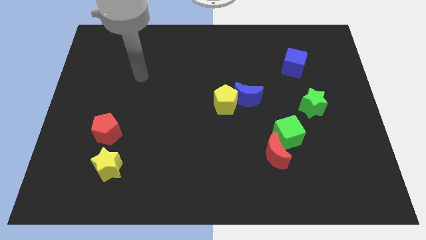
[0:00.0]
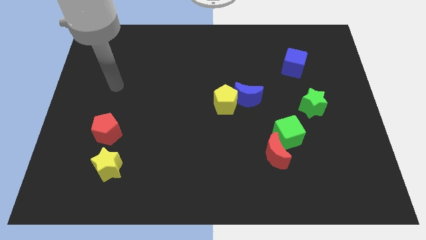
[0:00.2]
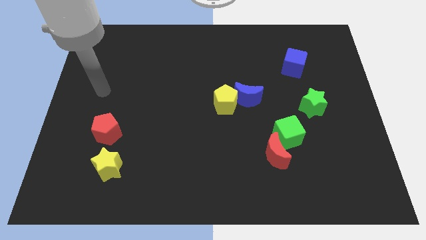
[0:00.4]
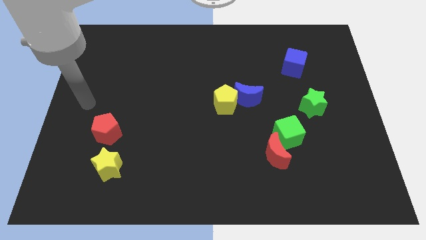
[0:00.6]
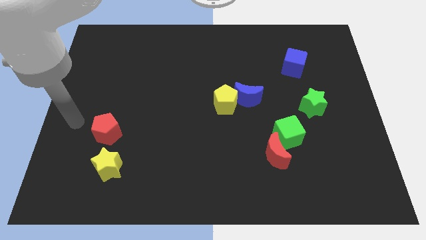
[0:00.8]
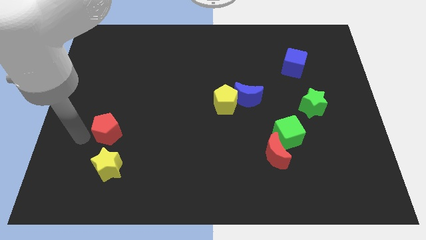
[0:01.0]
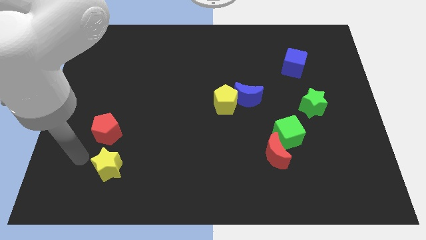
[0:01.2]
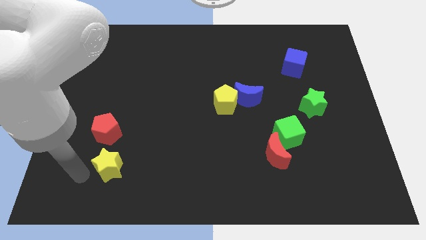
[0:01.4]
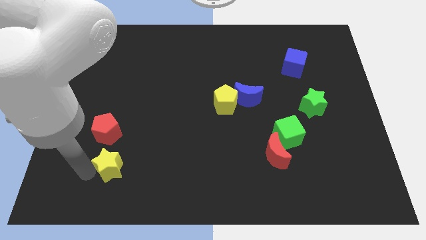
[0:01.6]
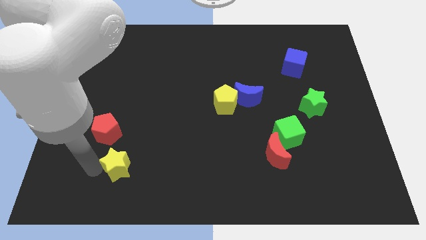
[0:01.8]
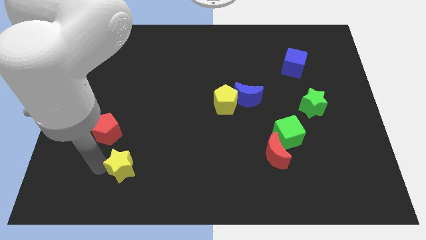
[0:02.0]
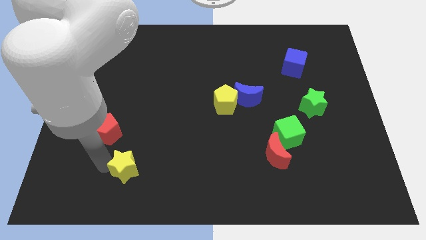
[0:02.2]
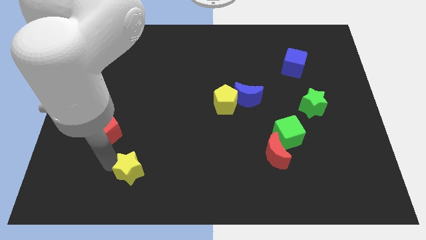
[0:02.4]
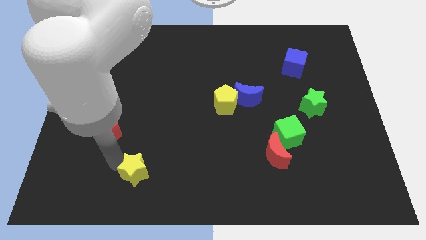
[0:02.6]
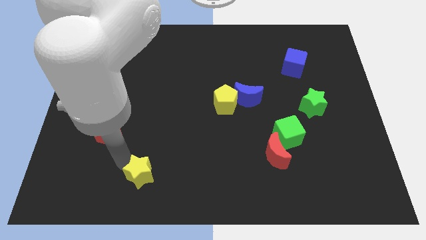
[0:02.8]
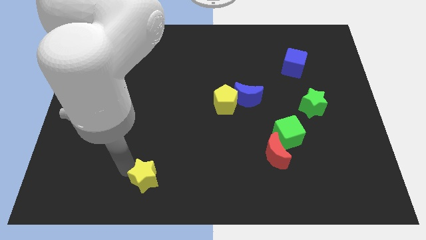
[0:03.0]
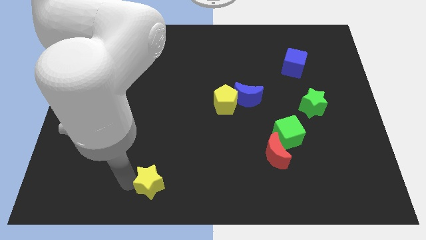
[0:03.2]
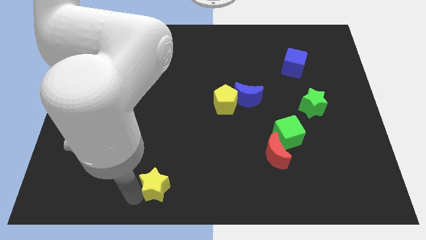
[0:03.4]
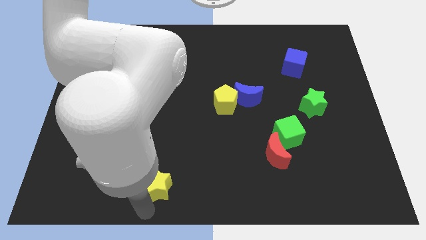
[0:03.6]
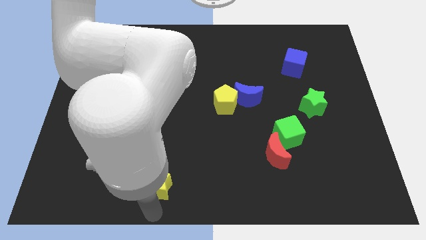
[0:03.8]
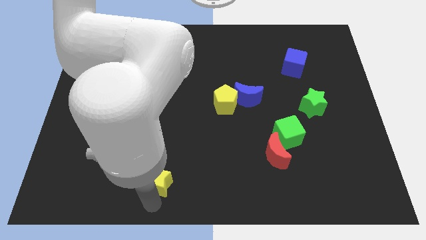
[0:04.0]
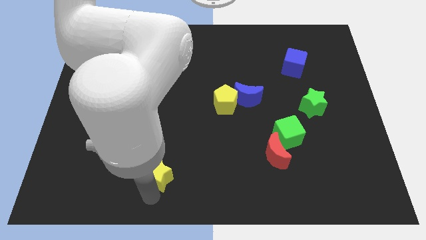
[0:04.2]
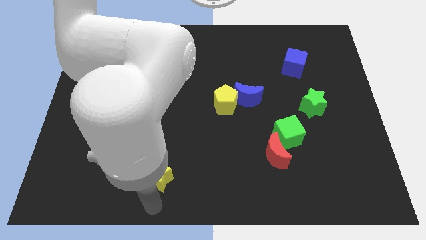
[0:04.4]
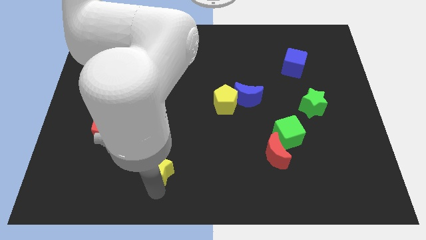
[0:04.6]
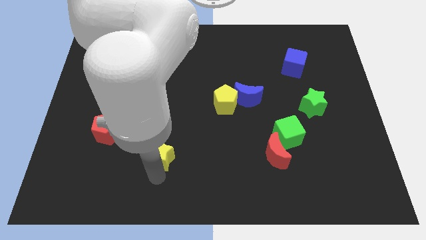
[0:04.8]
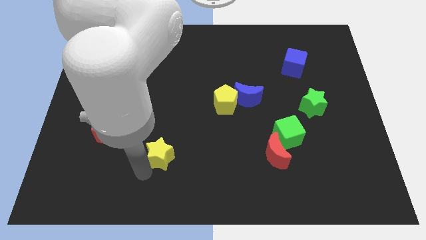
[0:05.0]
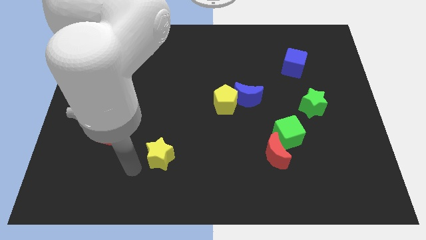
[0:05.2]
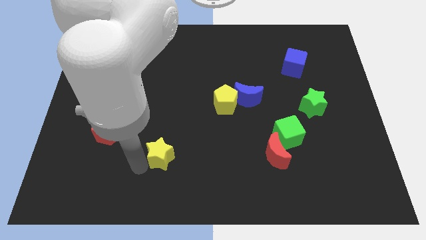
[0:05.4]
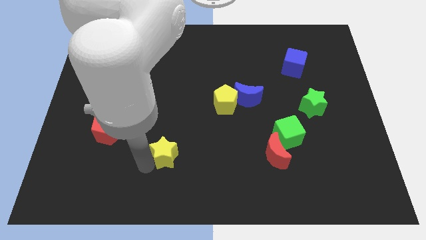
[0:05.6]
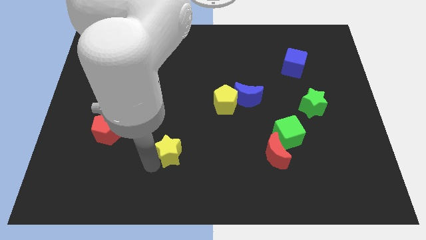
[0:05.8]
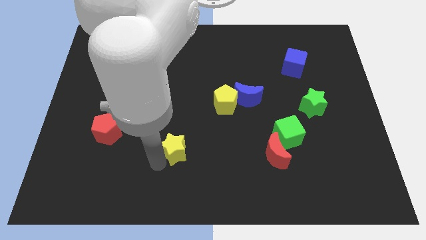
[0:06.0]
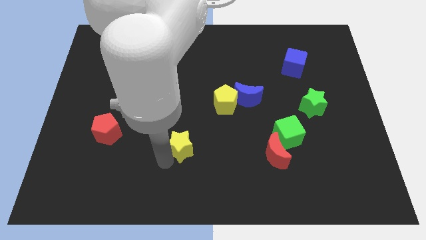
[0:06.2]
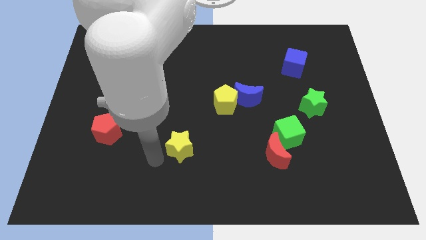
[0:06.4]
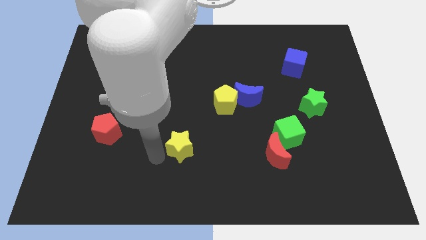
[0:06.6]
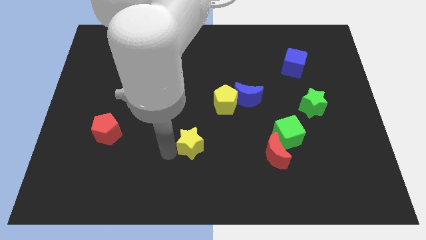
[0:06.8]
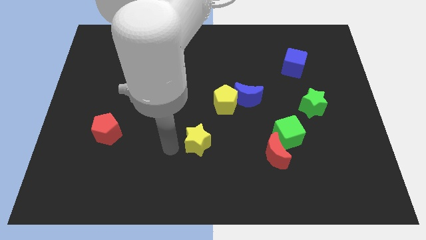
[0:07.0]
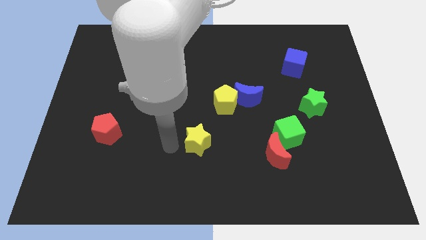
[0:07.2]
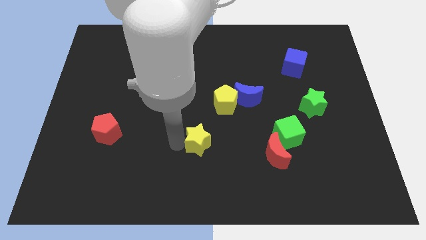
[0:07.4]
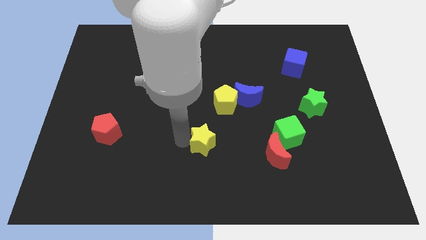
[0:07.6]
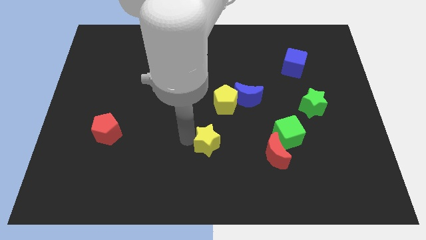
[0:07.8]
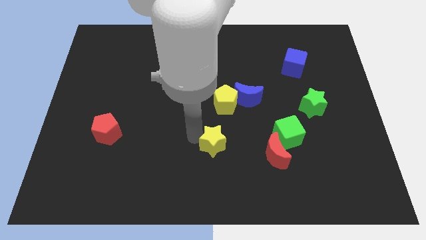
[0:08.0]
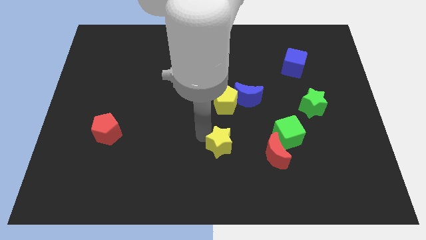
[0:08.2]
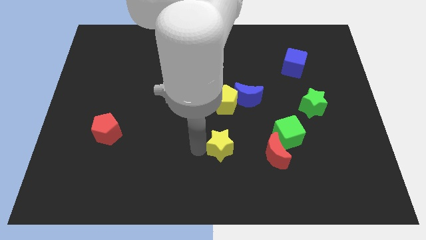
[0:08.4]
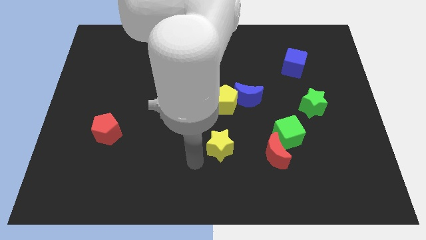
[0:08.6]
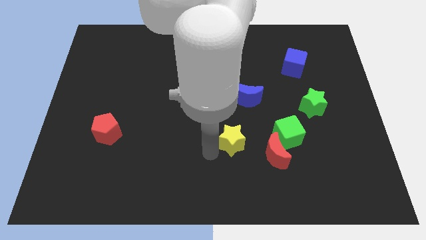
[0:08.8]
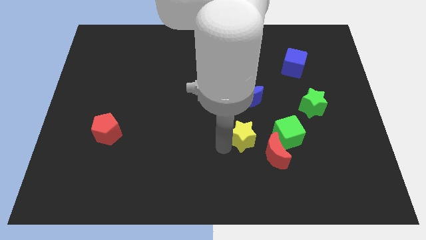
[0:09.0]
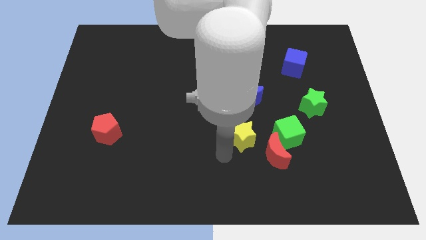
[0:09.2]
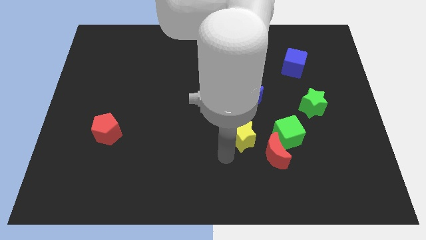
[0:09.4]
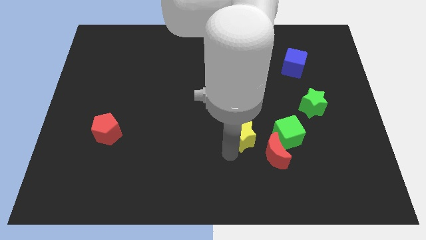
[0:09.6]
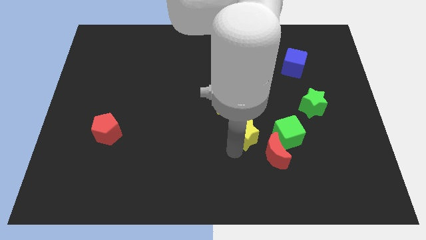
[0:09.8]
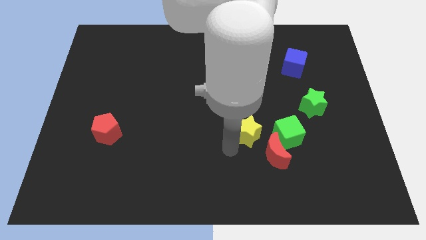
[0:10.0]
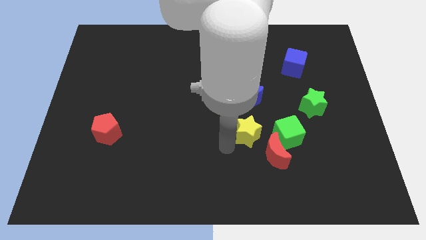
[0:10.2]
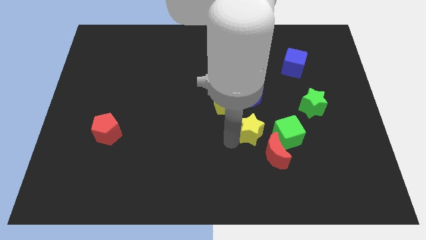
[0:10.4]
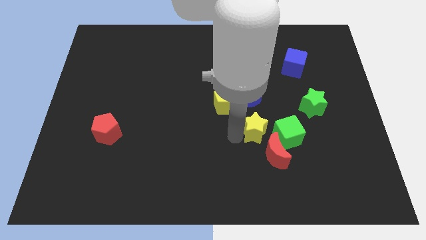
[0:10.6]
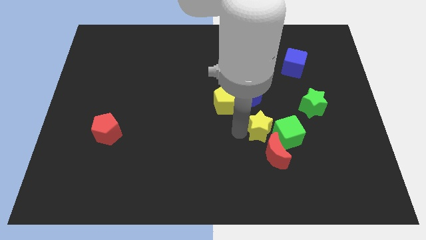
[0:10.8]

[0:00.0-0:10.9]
move the yellow star to the bottom right side of the blue moon

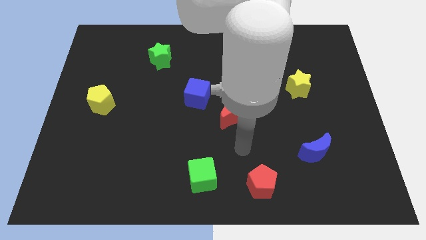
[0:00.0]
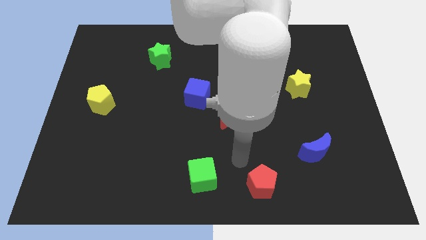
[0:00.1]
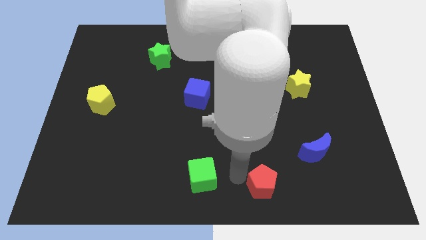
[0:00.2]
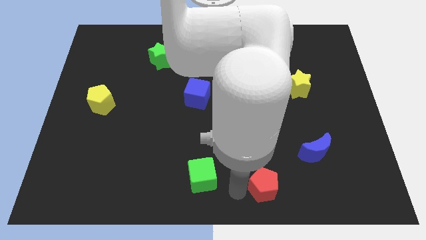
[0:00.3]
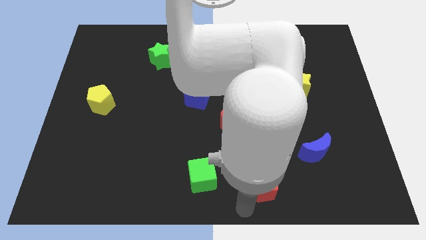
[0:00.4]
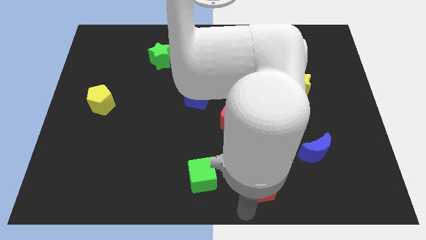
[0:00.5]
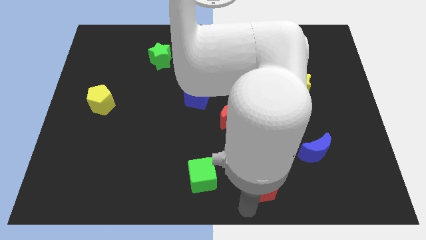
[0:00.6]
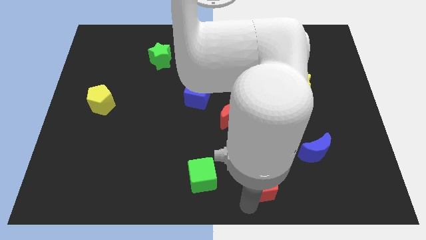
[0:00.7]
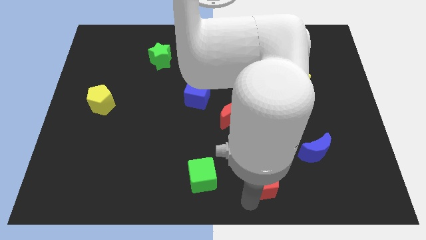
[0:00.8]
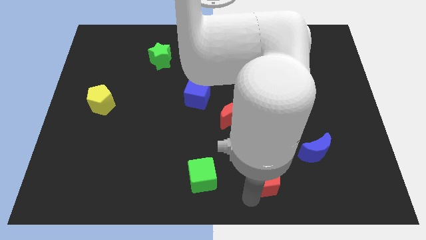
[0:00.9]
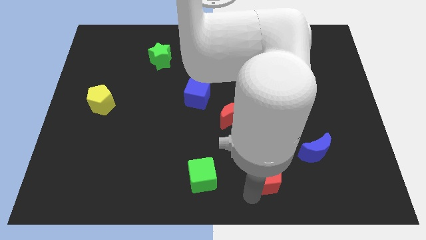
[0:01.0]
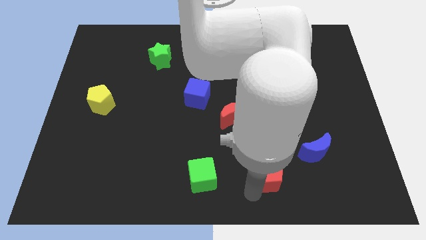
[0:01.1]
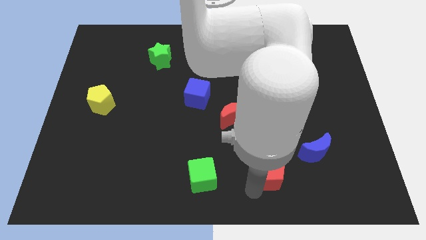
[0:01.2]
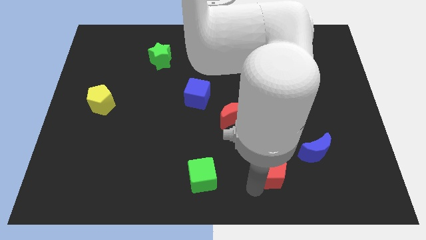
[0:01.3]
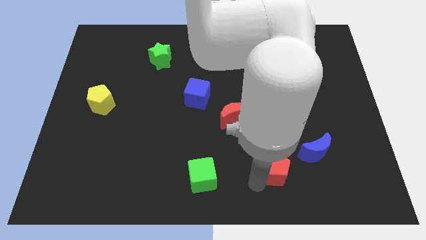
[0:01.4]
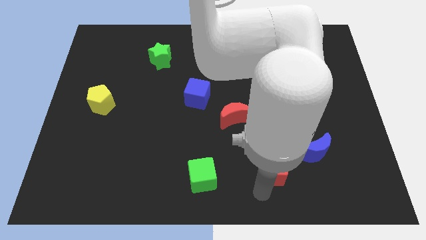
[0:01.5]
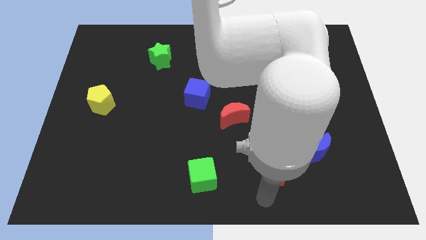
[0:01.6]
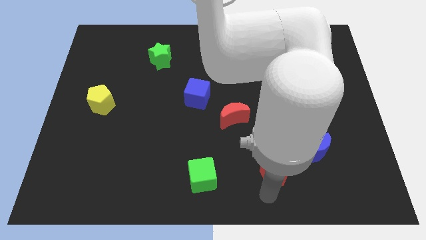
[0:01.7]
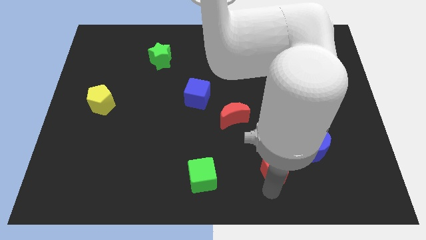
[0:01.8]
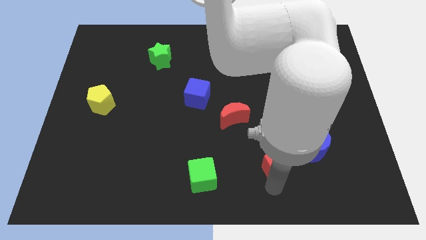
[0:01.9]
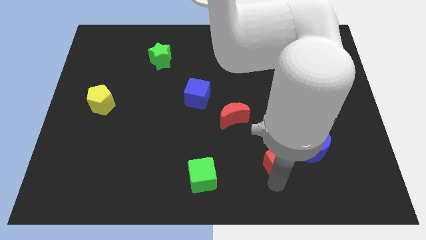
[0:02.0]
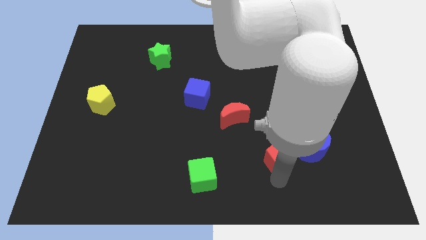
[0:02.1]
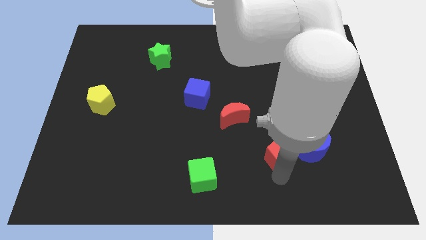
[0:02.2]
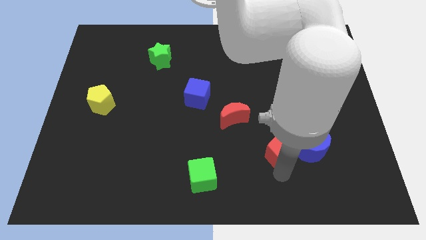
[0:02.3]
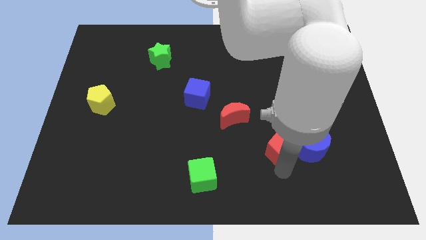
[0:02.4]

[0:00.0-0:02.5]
move the red pentagon diagonally up and to the left of the blue moon
